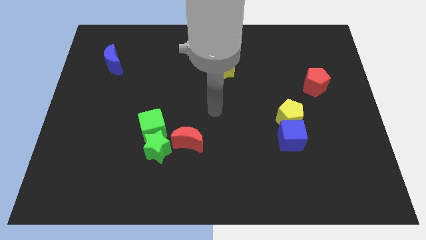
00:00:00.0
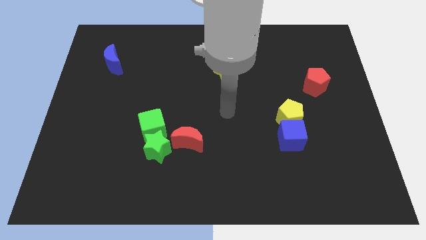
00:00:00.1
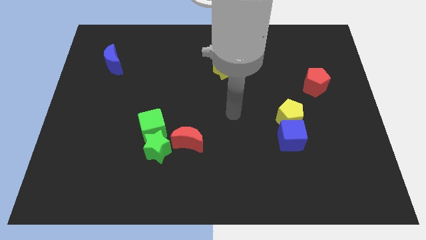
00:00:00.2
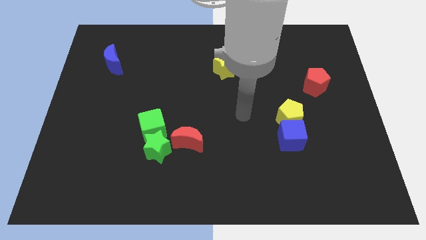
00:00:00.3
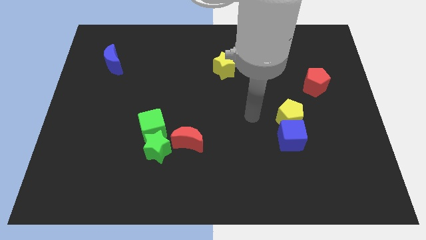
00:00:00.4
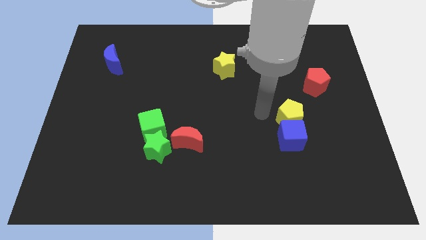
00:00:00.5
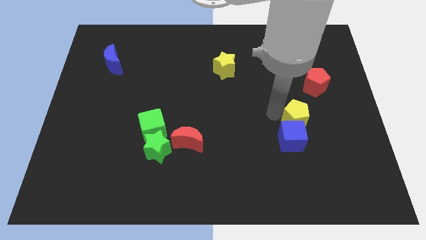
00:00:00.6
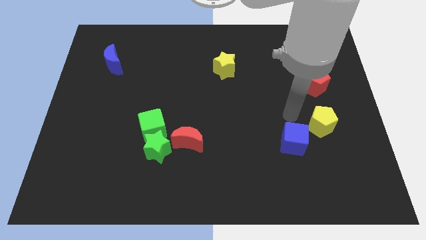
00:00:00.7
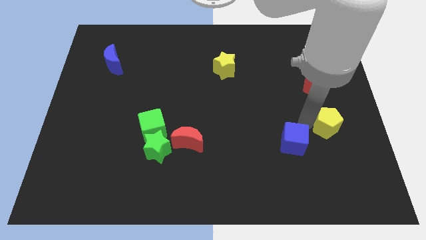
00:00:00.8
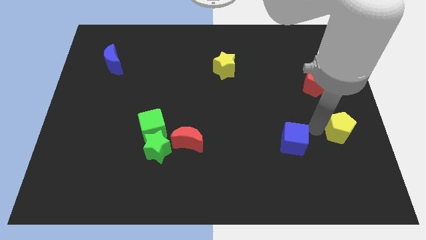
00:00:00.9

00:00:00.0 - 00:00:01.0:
move the blue cube away from the yellow pentagon

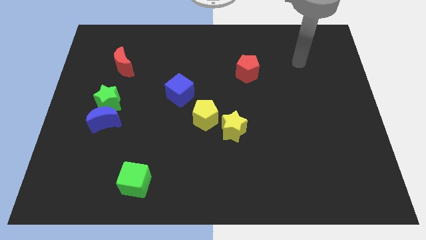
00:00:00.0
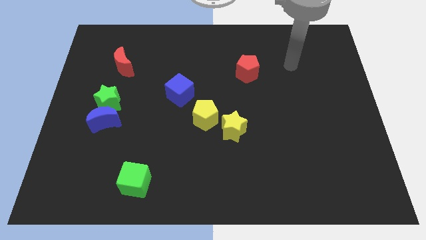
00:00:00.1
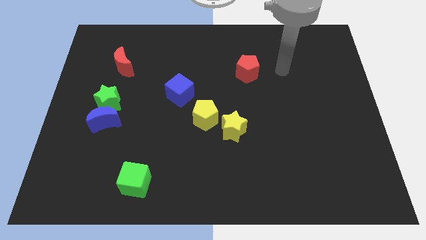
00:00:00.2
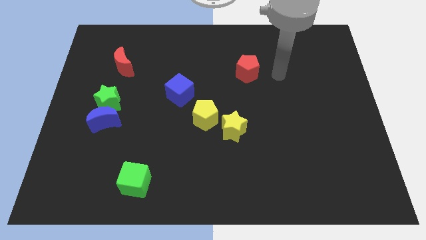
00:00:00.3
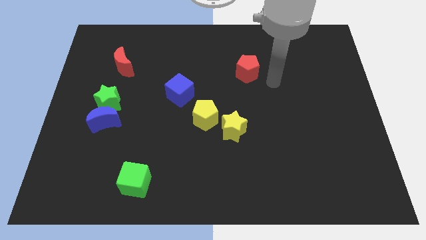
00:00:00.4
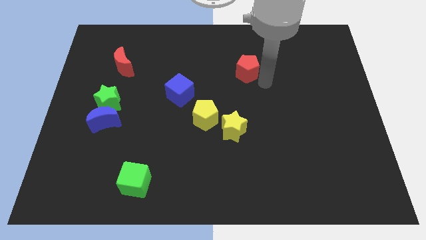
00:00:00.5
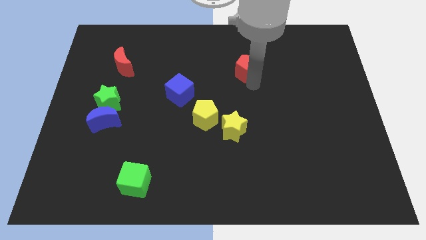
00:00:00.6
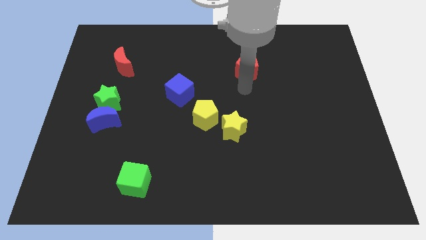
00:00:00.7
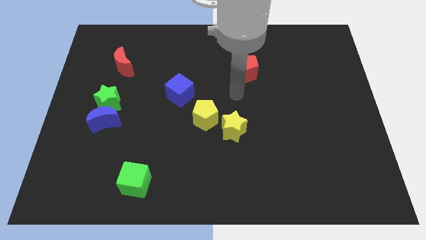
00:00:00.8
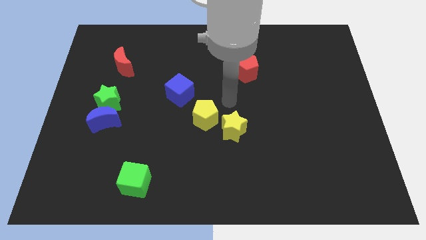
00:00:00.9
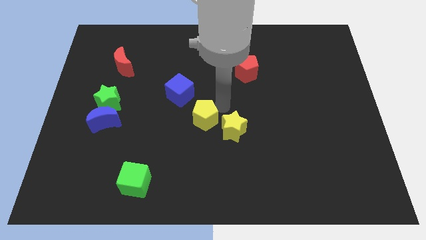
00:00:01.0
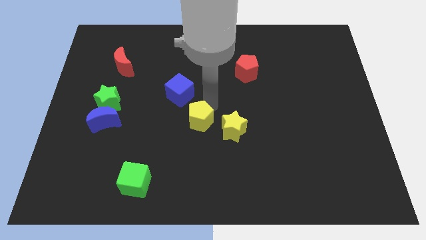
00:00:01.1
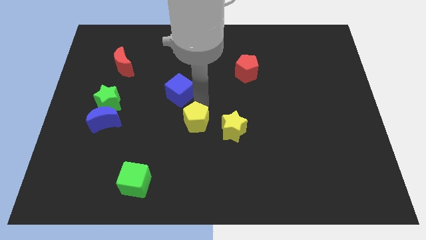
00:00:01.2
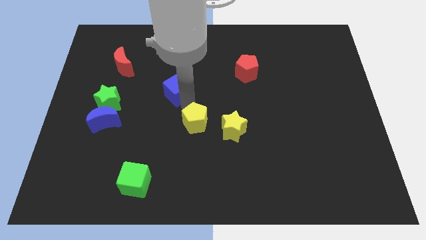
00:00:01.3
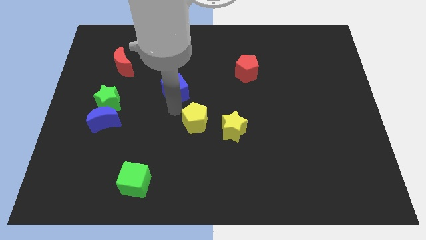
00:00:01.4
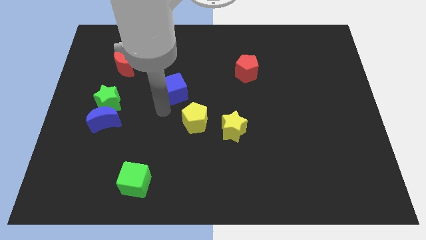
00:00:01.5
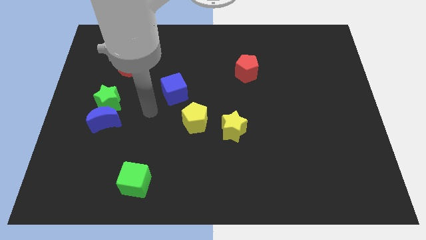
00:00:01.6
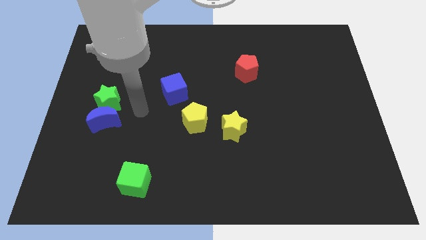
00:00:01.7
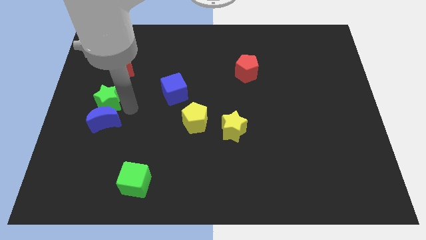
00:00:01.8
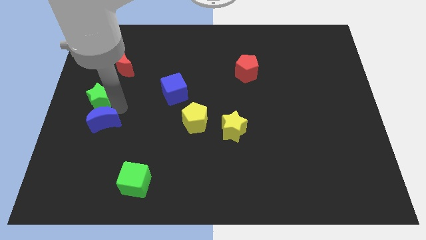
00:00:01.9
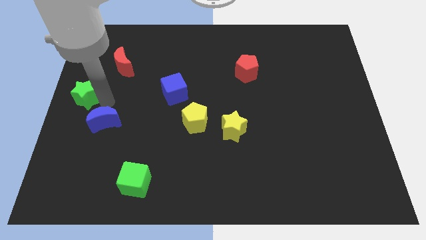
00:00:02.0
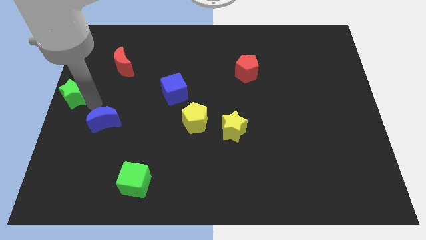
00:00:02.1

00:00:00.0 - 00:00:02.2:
separate the blue moon from the green star

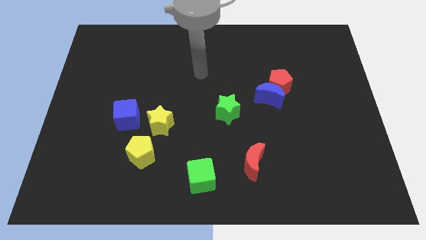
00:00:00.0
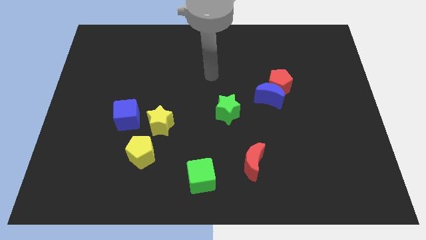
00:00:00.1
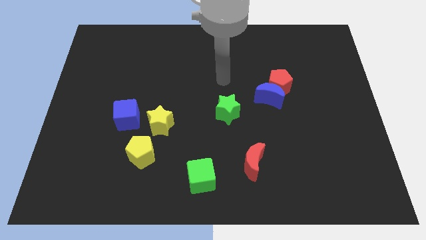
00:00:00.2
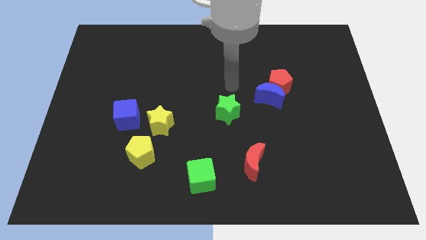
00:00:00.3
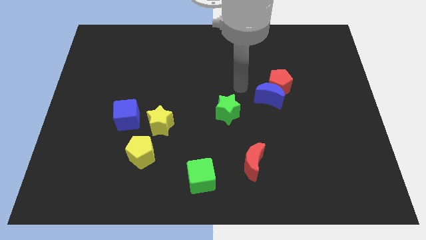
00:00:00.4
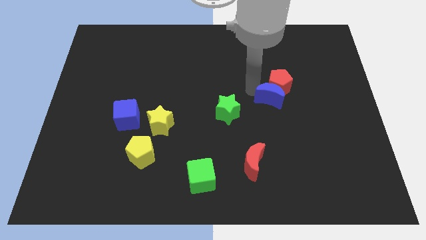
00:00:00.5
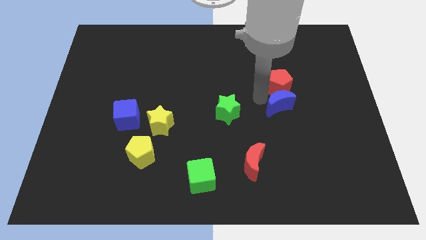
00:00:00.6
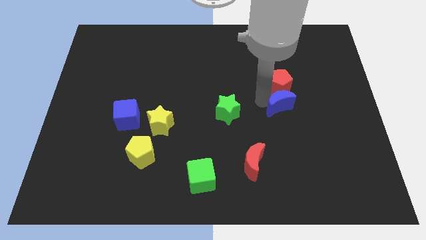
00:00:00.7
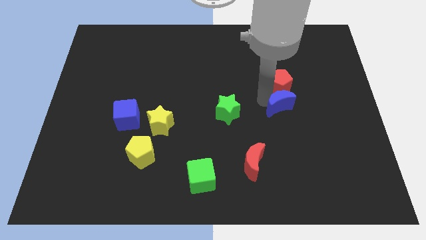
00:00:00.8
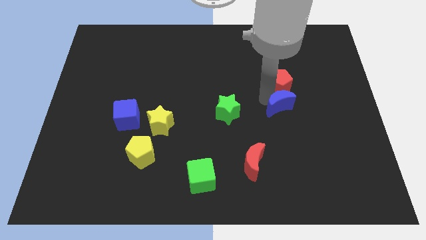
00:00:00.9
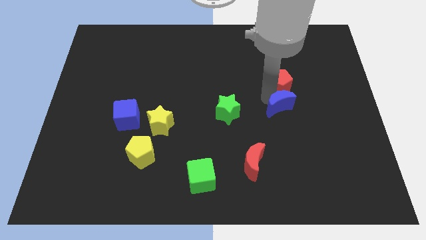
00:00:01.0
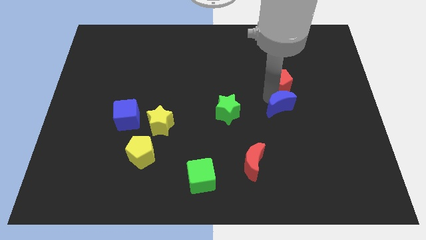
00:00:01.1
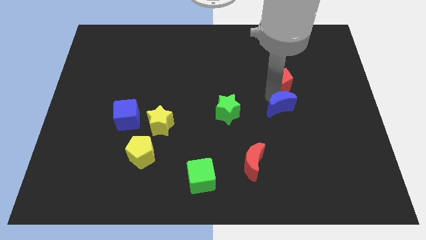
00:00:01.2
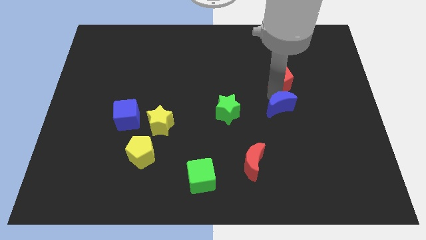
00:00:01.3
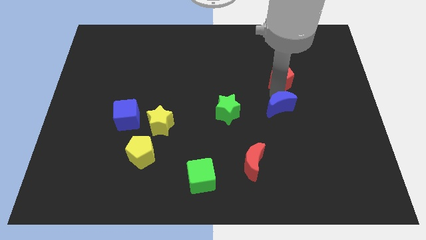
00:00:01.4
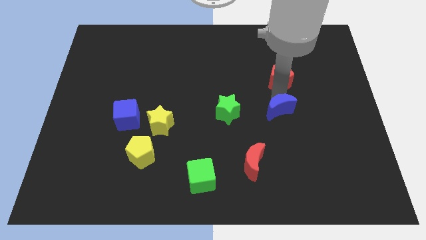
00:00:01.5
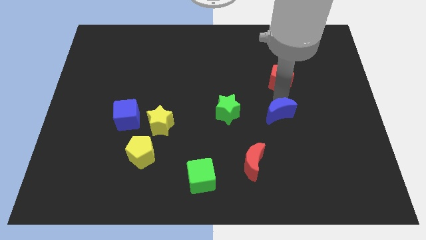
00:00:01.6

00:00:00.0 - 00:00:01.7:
pull the red pentagon apart from the blue moon

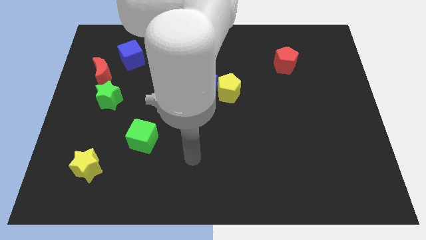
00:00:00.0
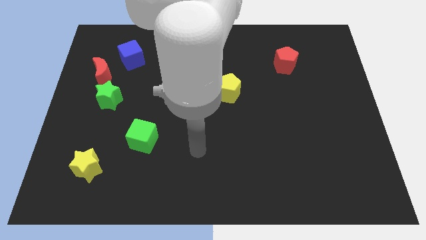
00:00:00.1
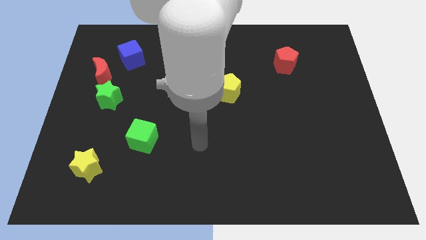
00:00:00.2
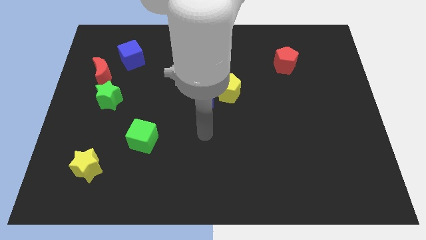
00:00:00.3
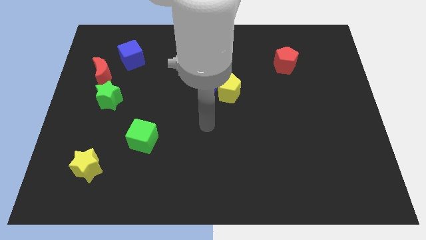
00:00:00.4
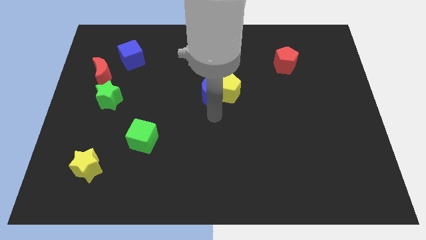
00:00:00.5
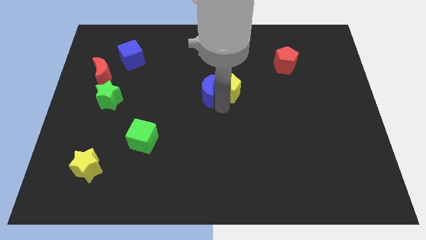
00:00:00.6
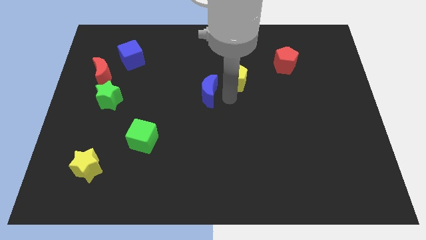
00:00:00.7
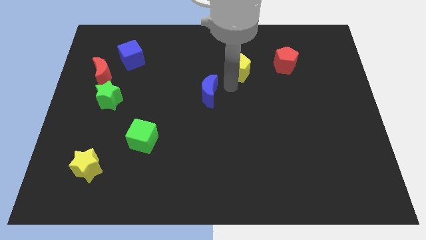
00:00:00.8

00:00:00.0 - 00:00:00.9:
pull the blue moon apart from the yellow pentagon

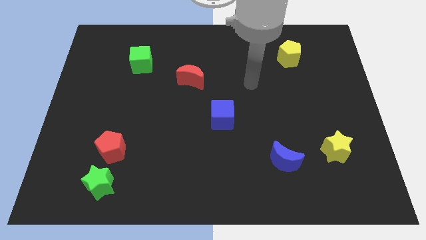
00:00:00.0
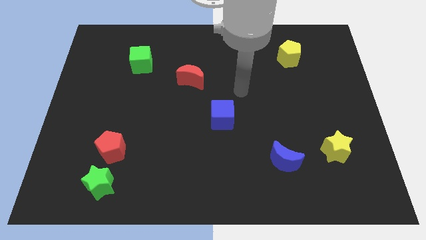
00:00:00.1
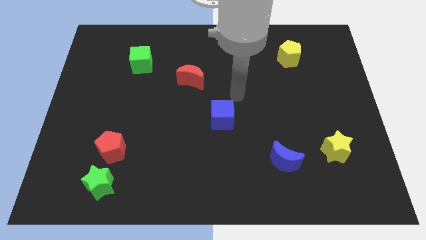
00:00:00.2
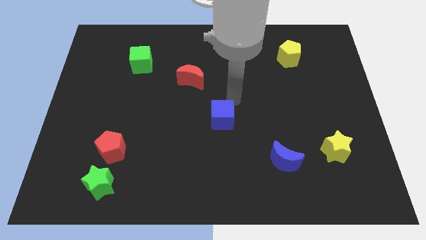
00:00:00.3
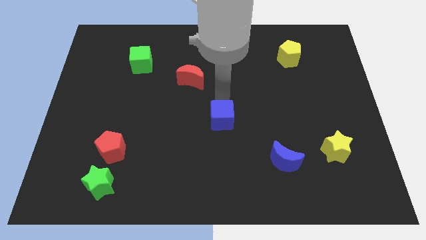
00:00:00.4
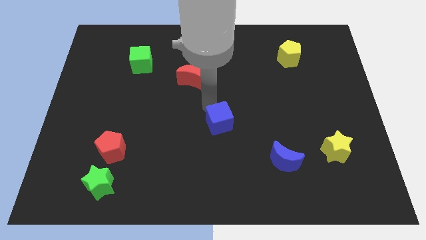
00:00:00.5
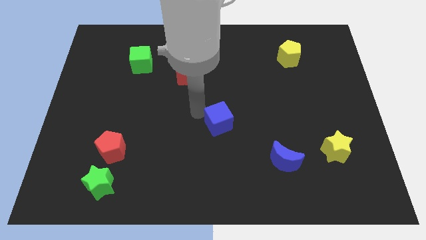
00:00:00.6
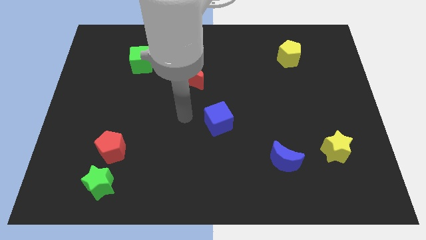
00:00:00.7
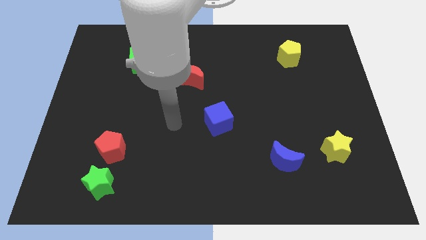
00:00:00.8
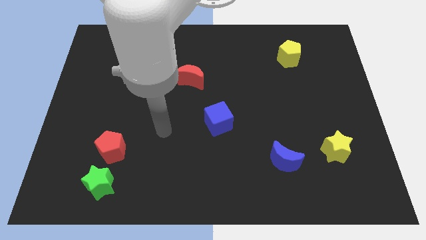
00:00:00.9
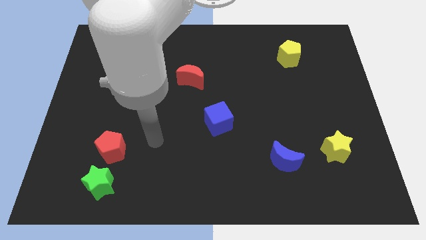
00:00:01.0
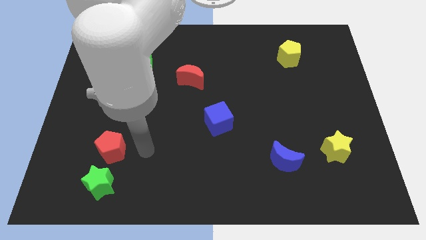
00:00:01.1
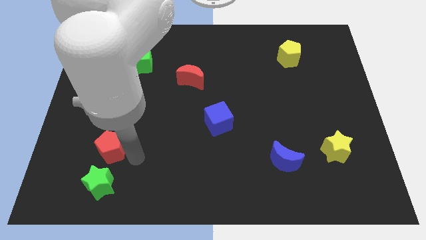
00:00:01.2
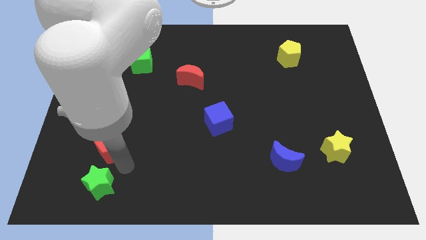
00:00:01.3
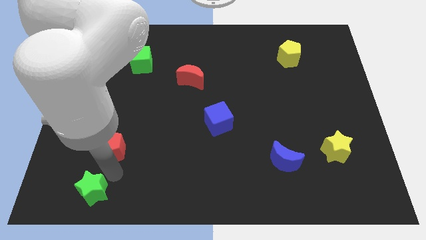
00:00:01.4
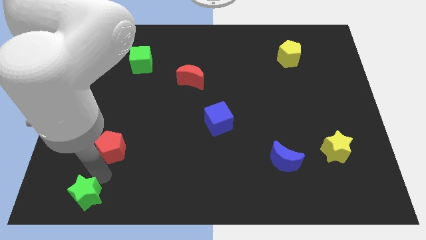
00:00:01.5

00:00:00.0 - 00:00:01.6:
pull the red pentagon apart from the green star

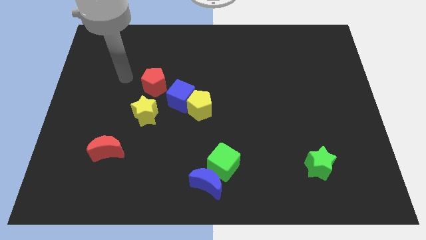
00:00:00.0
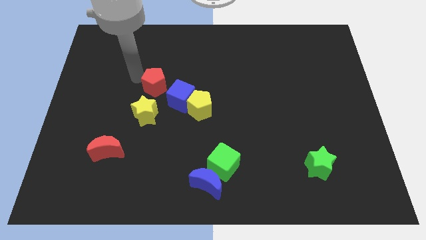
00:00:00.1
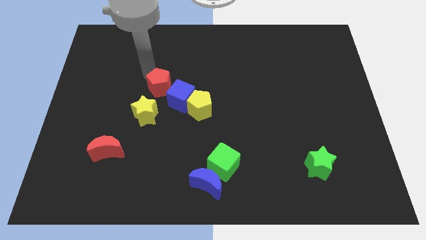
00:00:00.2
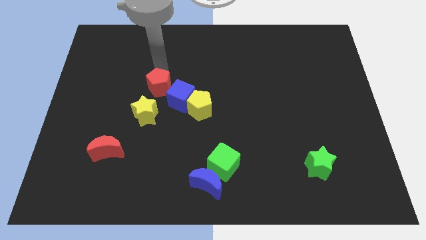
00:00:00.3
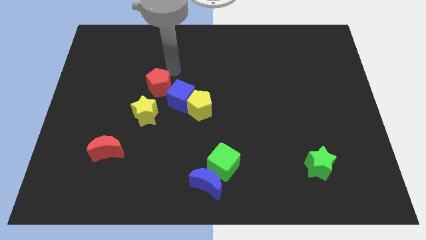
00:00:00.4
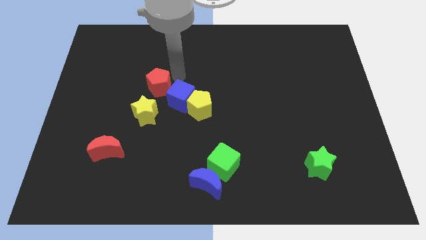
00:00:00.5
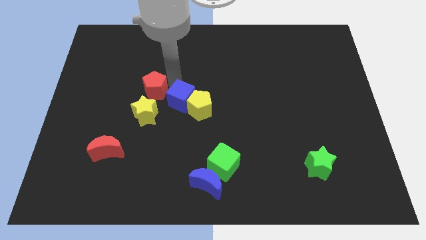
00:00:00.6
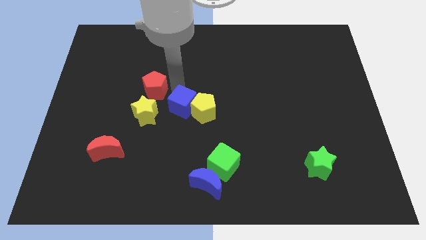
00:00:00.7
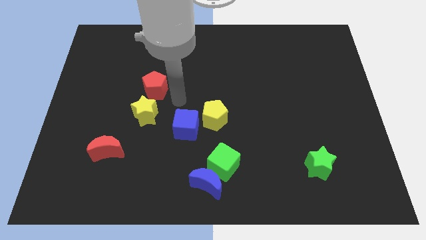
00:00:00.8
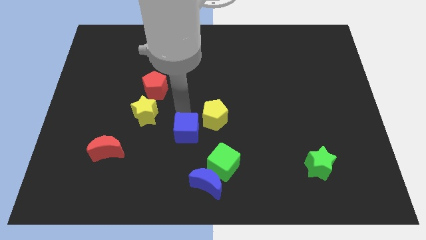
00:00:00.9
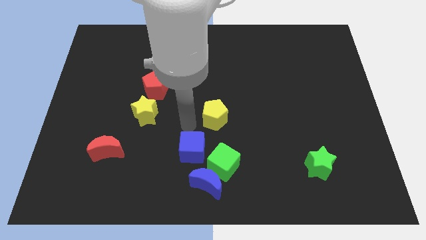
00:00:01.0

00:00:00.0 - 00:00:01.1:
separate the yellow pentagon from the blue cube

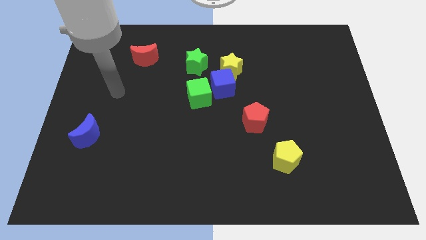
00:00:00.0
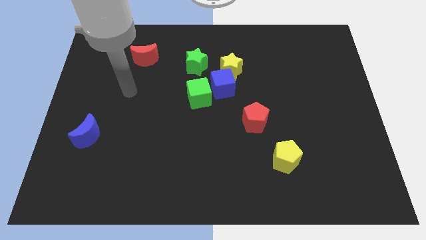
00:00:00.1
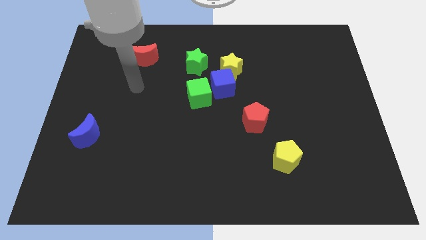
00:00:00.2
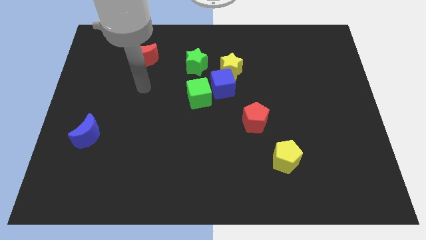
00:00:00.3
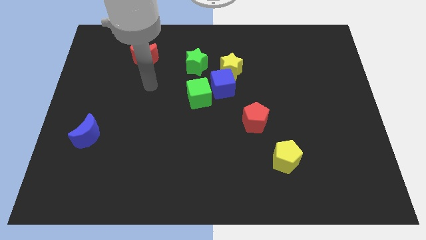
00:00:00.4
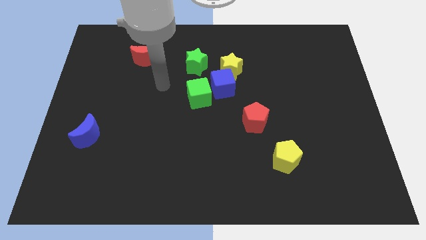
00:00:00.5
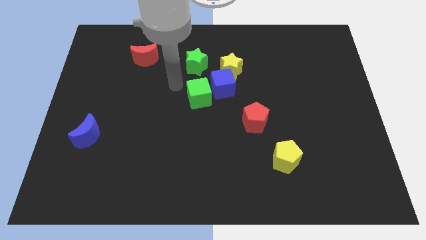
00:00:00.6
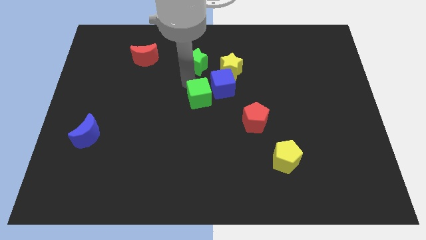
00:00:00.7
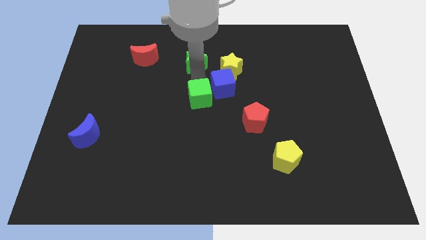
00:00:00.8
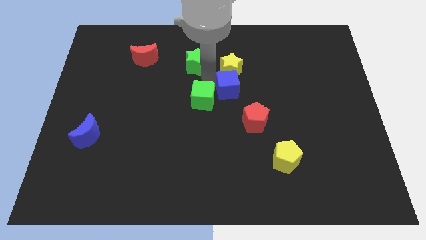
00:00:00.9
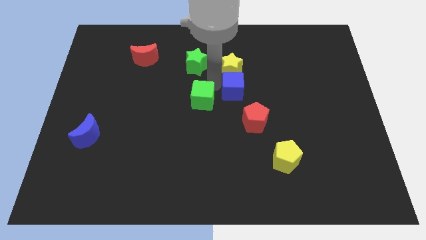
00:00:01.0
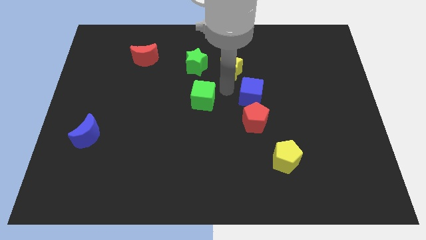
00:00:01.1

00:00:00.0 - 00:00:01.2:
separate the green cube from the blue cube
